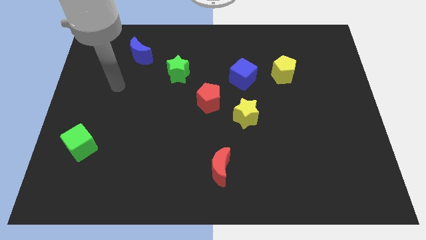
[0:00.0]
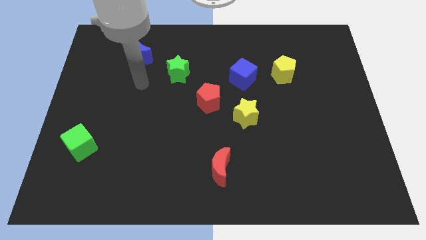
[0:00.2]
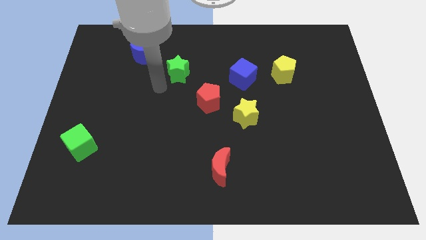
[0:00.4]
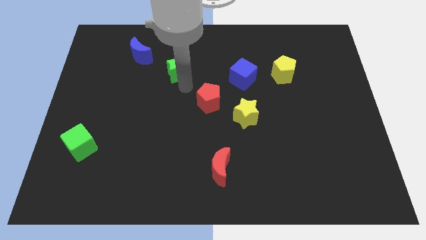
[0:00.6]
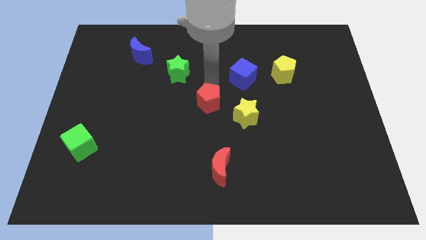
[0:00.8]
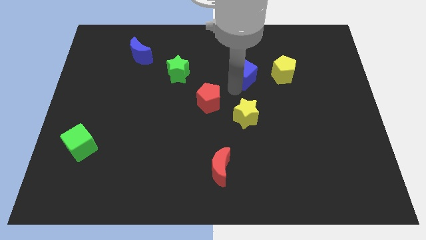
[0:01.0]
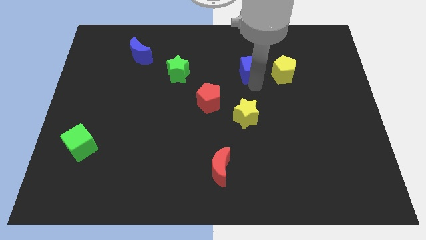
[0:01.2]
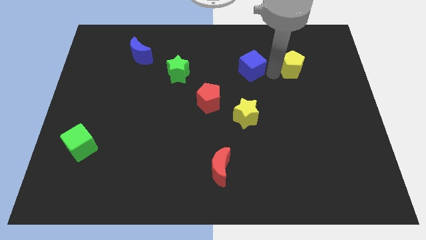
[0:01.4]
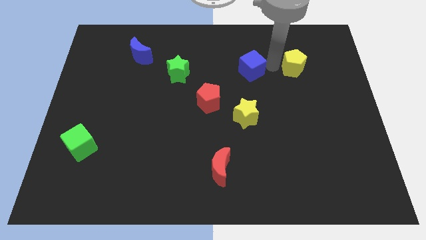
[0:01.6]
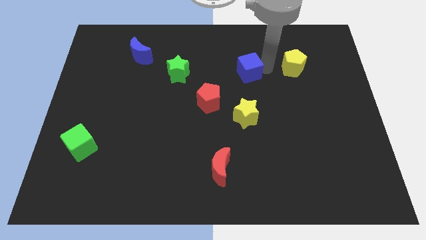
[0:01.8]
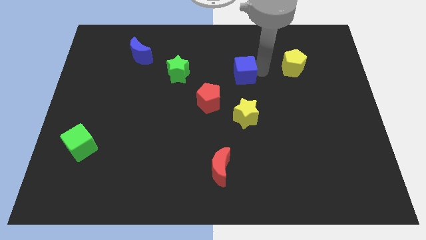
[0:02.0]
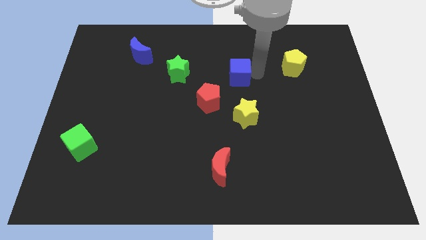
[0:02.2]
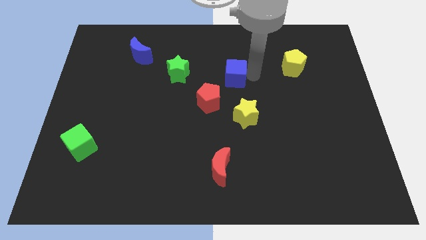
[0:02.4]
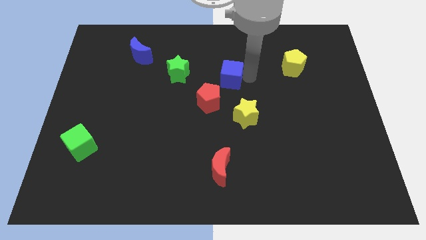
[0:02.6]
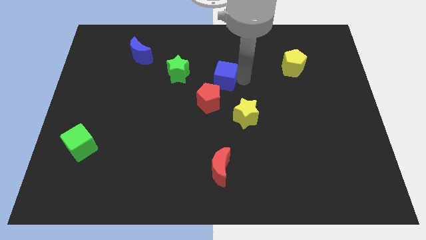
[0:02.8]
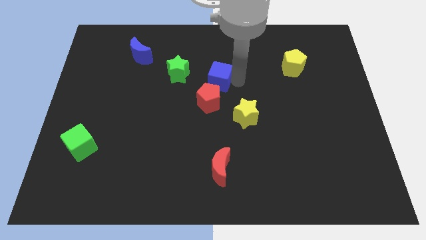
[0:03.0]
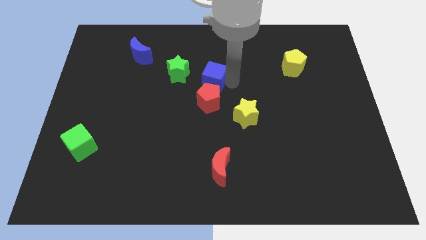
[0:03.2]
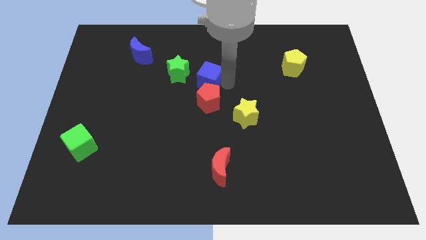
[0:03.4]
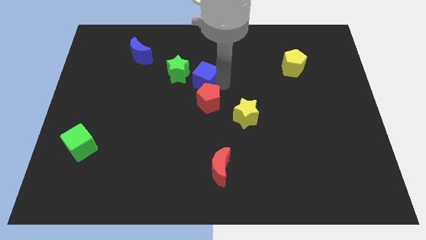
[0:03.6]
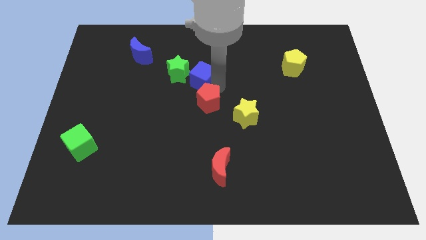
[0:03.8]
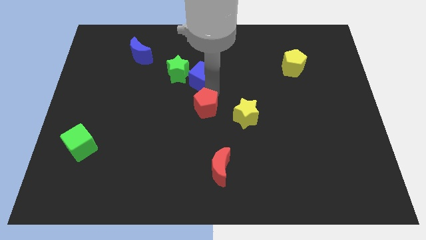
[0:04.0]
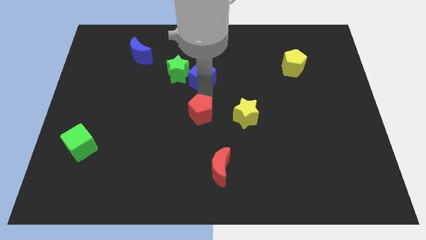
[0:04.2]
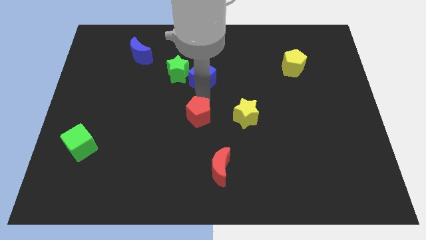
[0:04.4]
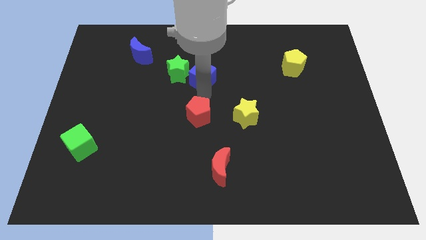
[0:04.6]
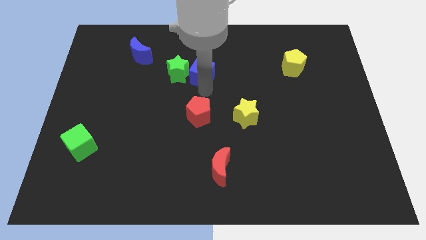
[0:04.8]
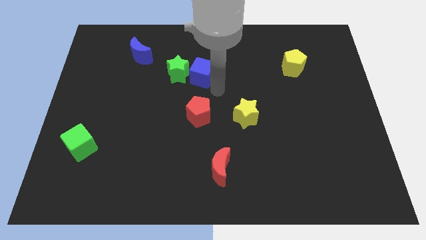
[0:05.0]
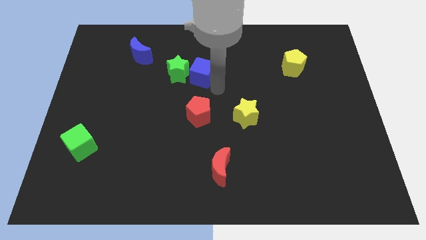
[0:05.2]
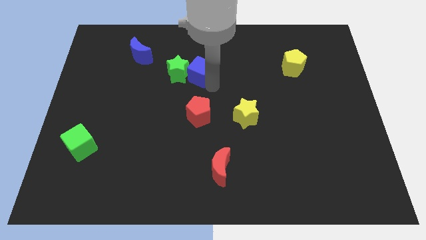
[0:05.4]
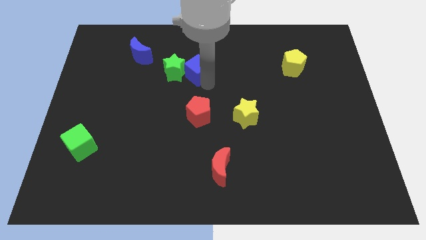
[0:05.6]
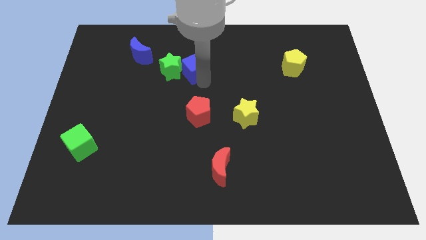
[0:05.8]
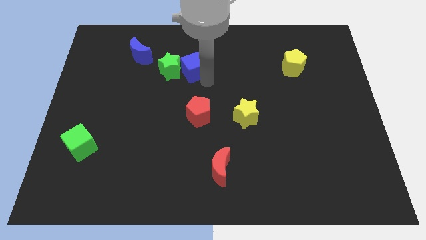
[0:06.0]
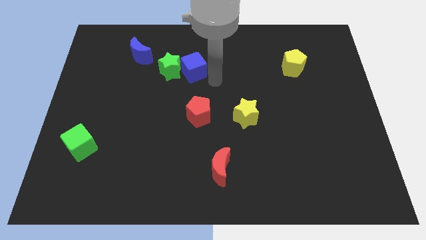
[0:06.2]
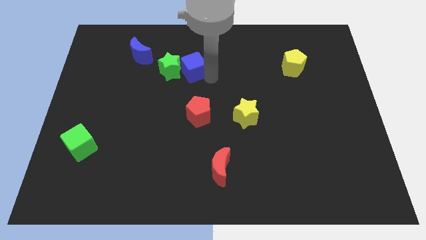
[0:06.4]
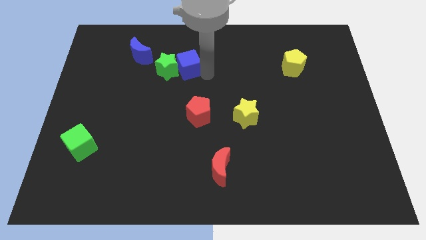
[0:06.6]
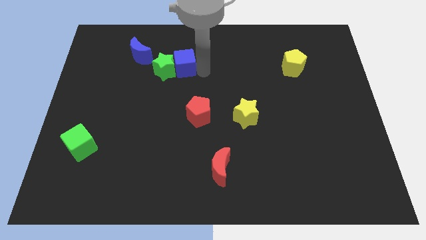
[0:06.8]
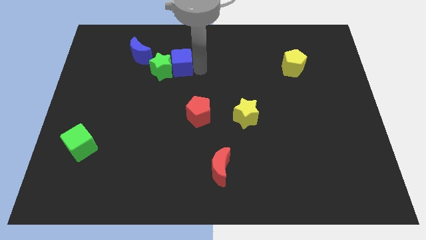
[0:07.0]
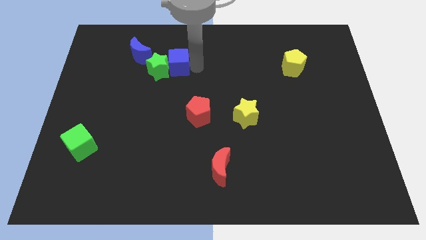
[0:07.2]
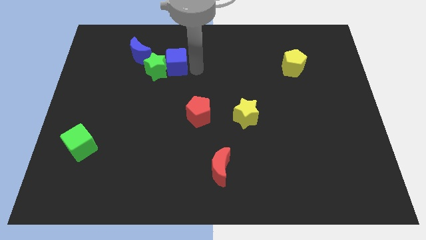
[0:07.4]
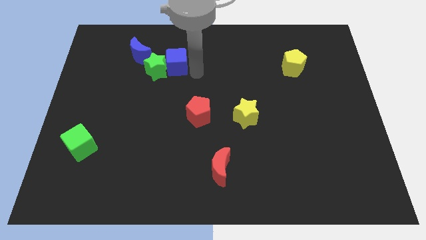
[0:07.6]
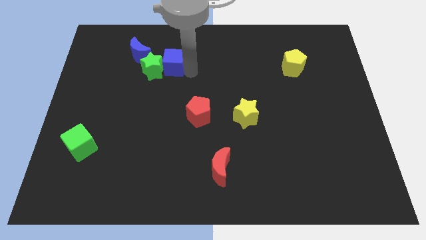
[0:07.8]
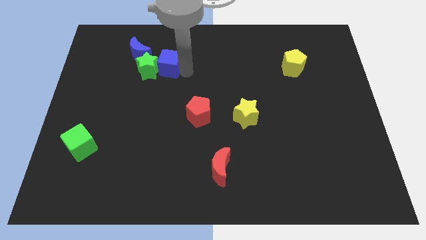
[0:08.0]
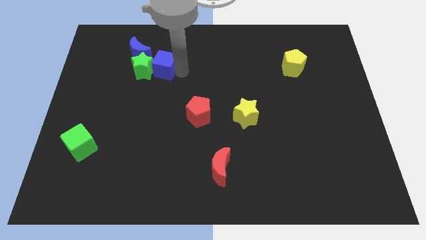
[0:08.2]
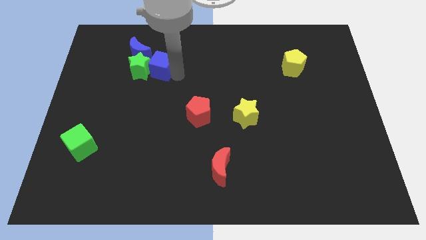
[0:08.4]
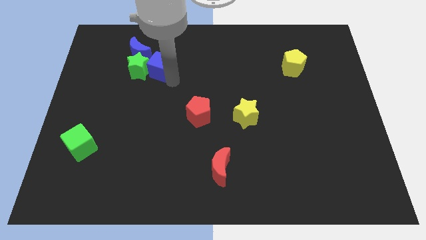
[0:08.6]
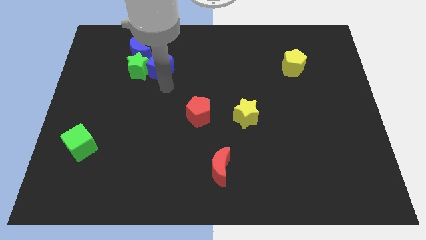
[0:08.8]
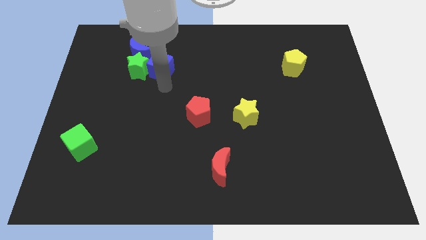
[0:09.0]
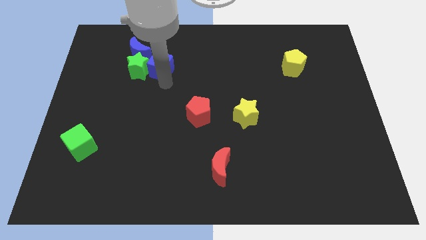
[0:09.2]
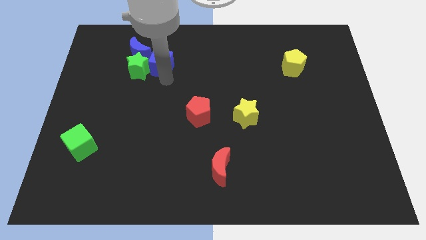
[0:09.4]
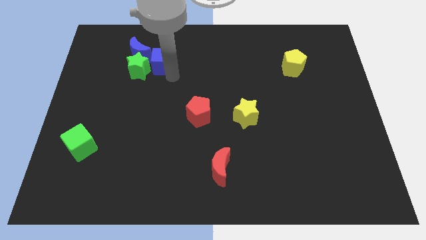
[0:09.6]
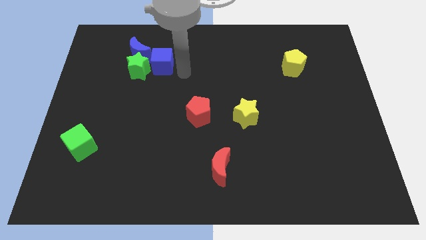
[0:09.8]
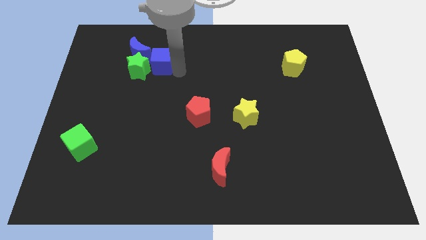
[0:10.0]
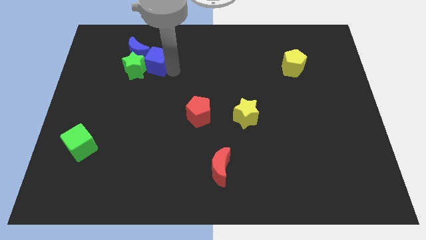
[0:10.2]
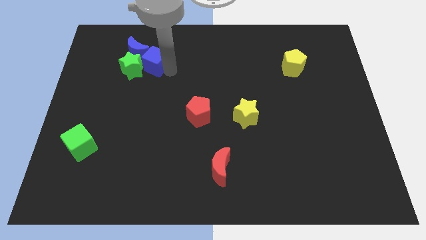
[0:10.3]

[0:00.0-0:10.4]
slide the blue cube next to the blue moon

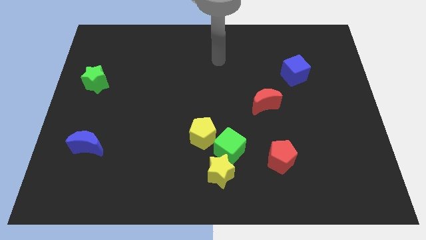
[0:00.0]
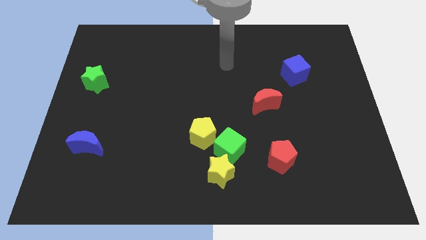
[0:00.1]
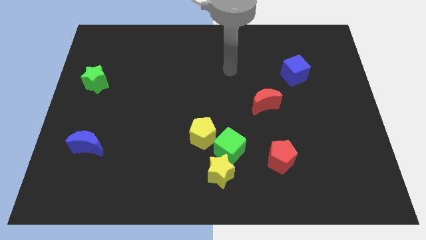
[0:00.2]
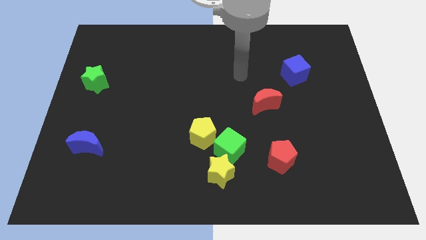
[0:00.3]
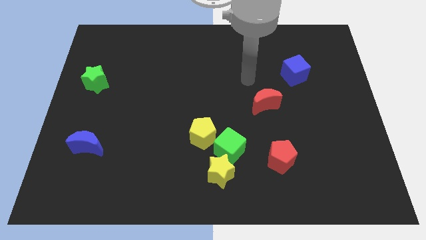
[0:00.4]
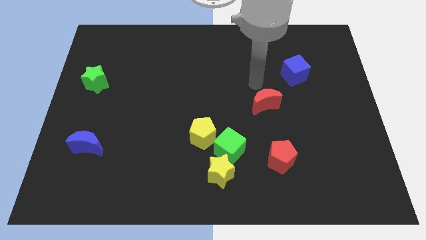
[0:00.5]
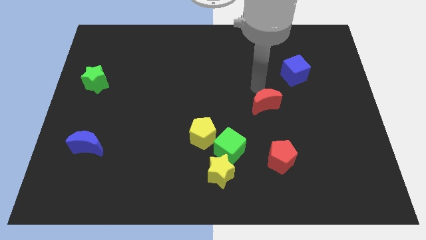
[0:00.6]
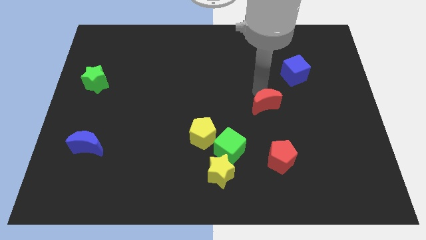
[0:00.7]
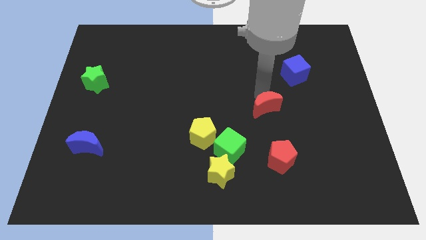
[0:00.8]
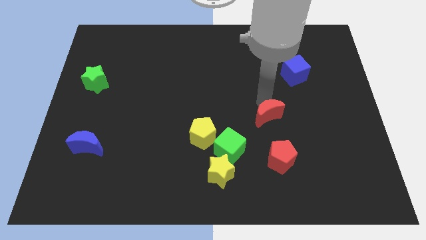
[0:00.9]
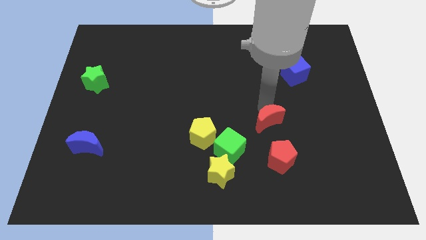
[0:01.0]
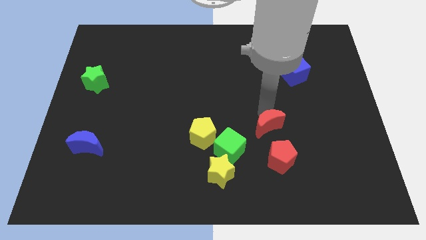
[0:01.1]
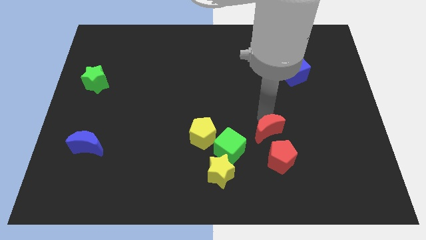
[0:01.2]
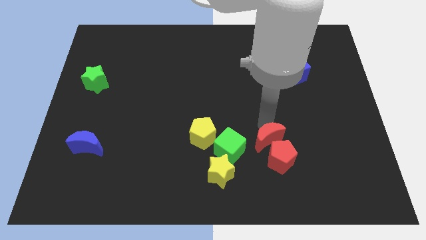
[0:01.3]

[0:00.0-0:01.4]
push the red moon close to the red pentagon
